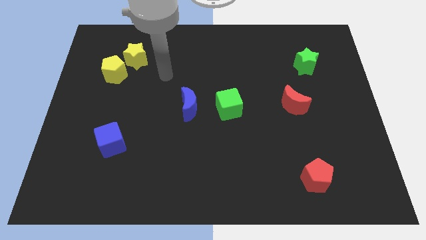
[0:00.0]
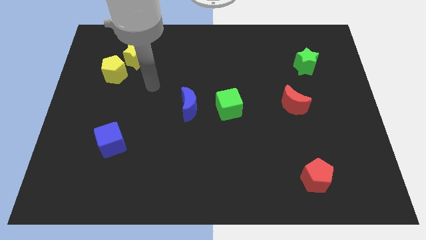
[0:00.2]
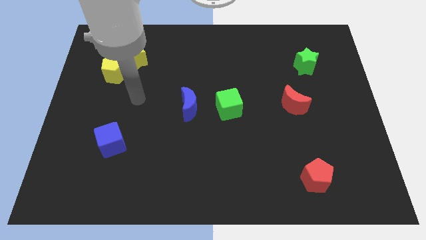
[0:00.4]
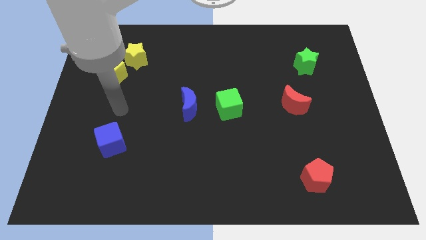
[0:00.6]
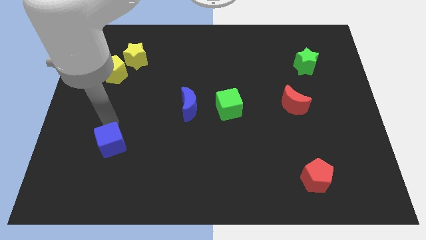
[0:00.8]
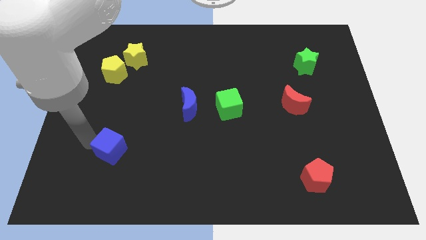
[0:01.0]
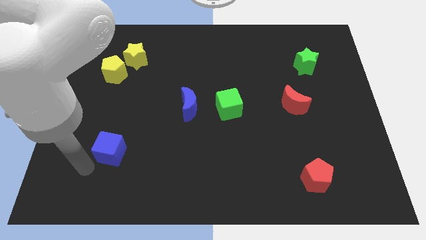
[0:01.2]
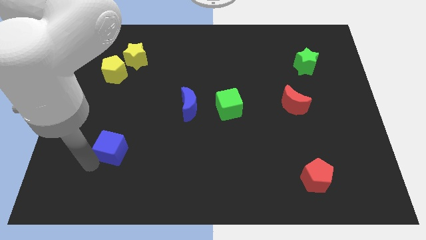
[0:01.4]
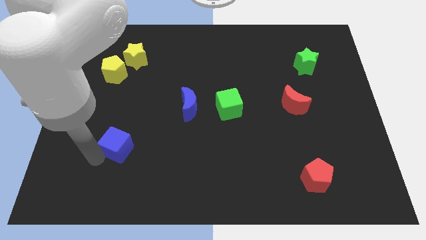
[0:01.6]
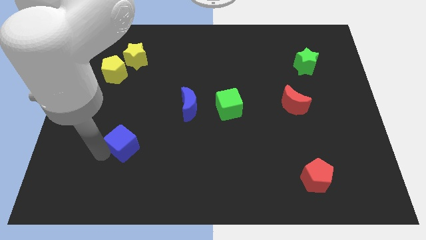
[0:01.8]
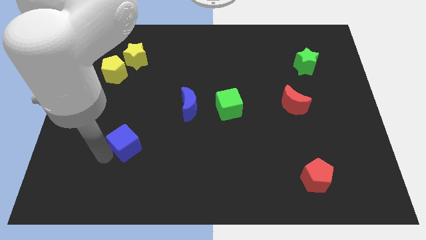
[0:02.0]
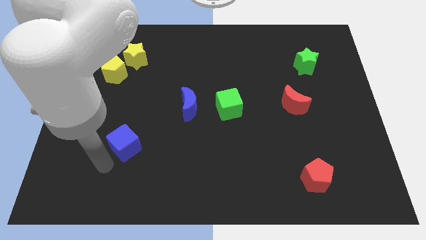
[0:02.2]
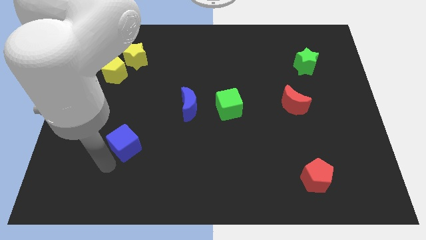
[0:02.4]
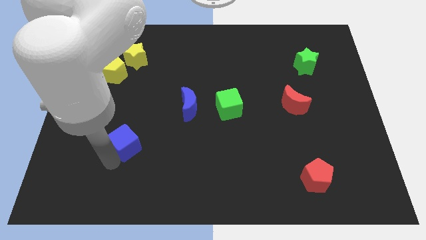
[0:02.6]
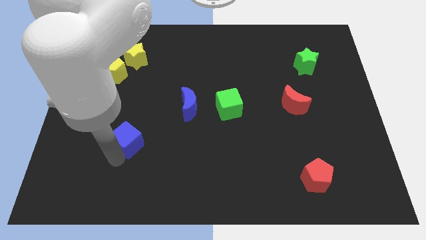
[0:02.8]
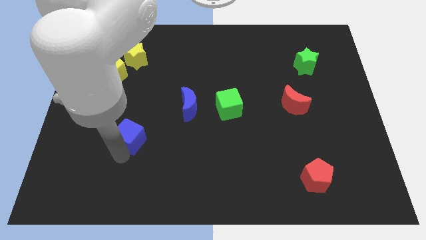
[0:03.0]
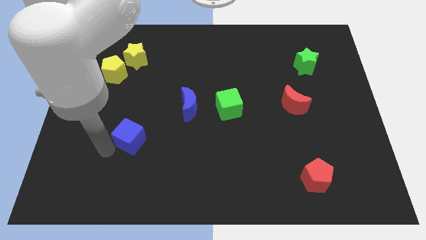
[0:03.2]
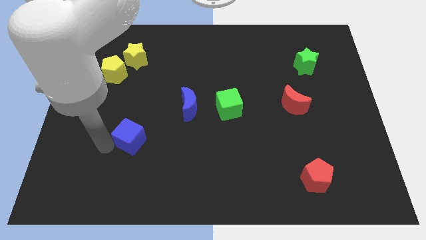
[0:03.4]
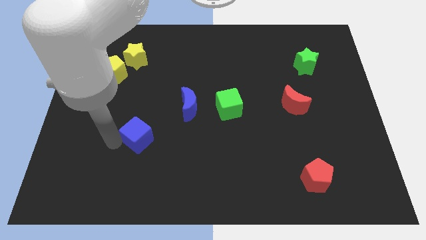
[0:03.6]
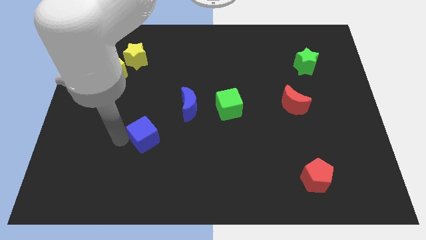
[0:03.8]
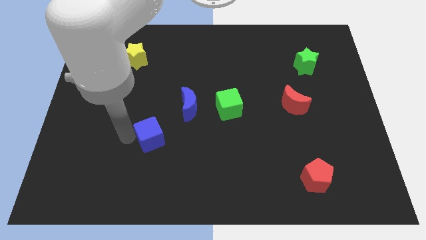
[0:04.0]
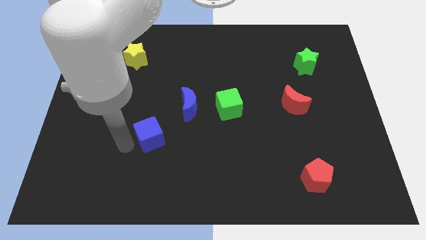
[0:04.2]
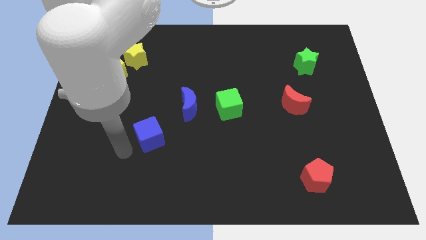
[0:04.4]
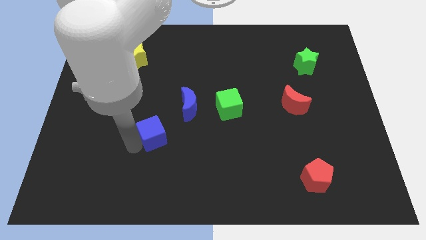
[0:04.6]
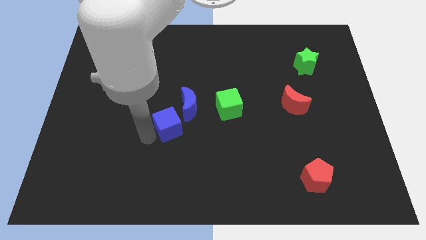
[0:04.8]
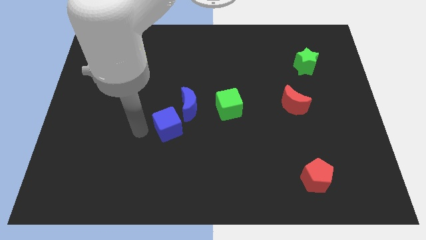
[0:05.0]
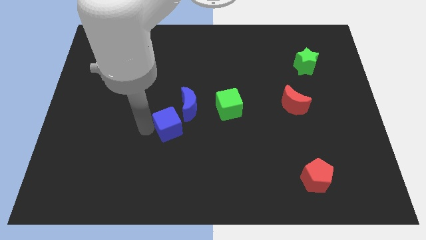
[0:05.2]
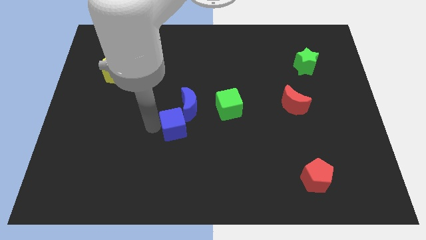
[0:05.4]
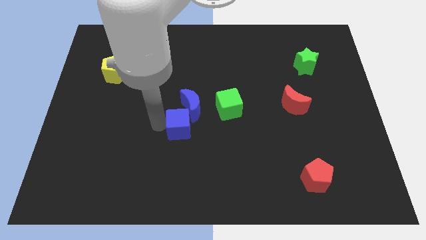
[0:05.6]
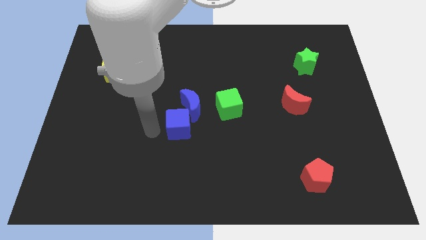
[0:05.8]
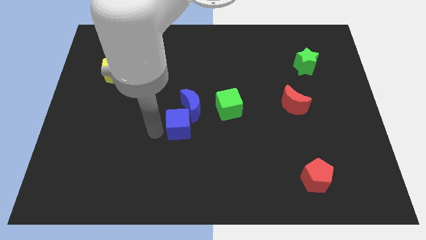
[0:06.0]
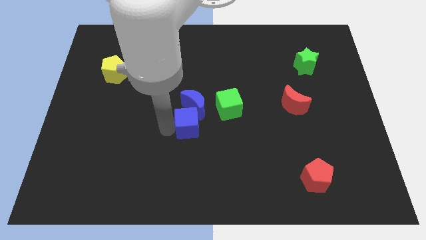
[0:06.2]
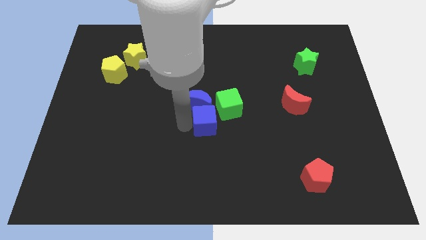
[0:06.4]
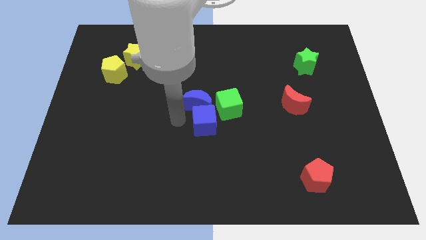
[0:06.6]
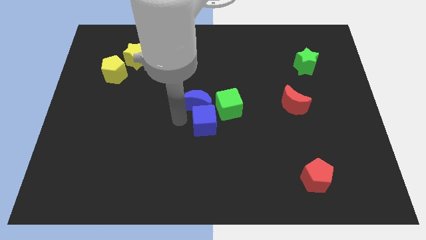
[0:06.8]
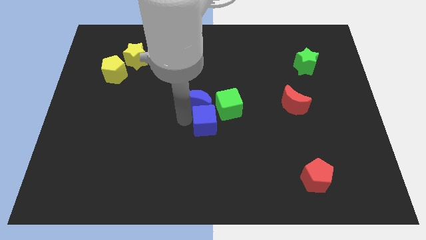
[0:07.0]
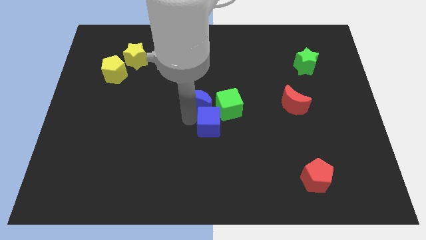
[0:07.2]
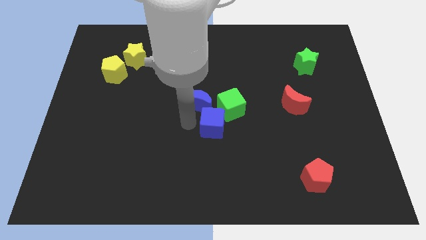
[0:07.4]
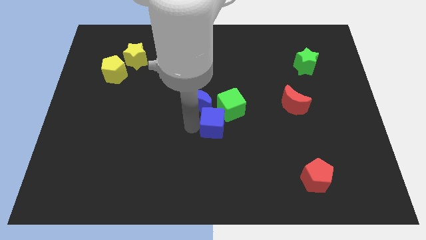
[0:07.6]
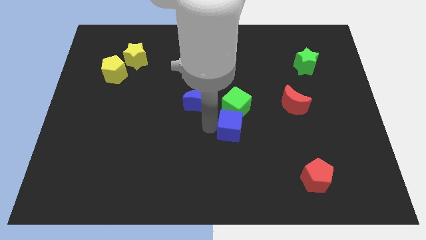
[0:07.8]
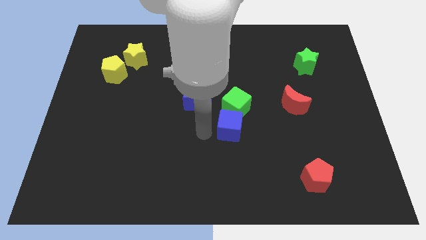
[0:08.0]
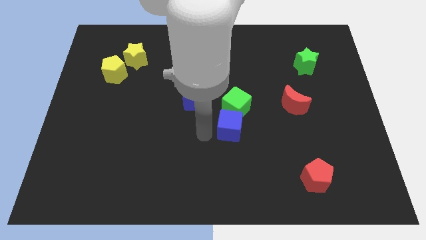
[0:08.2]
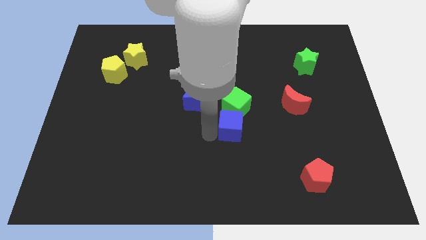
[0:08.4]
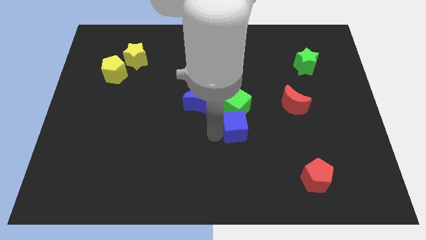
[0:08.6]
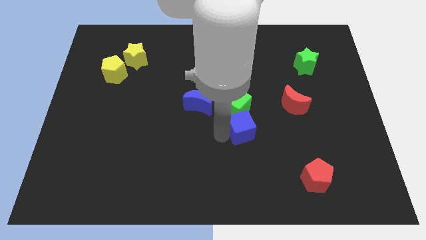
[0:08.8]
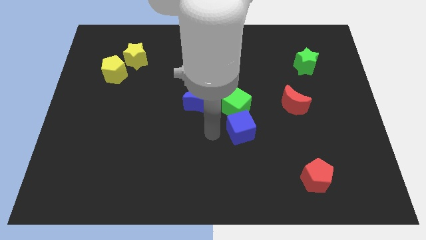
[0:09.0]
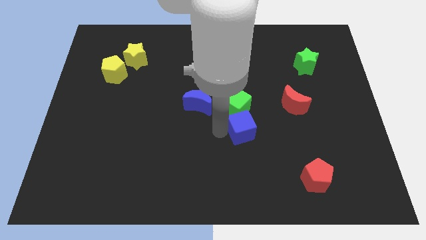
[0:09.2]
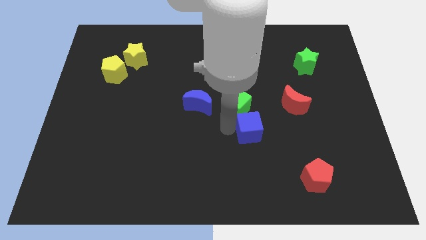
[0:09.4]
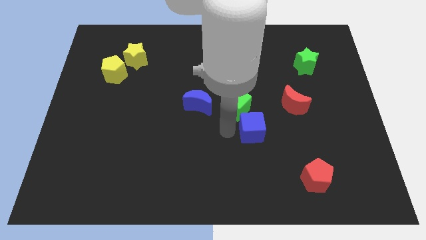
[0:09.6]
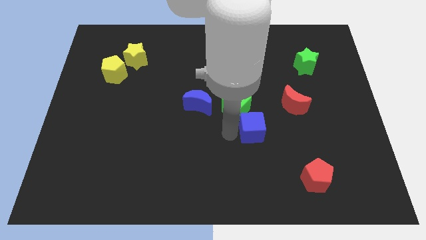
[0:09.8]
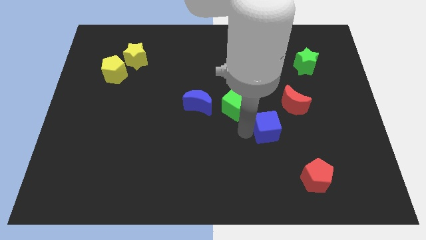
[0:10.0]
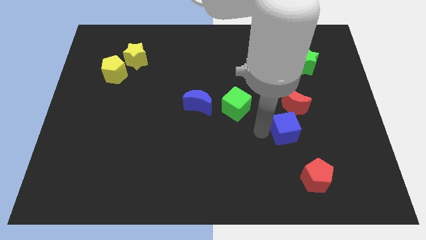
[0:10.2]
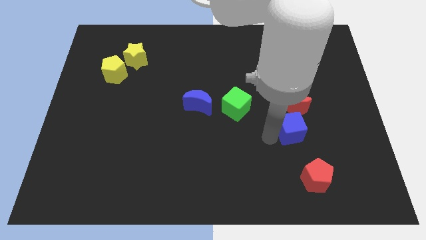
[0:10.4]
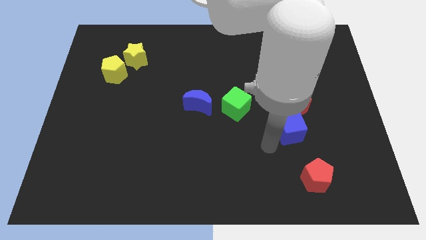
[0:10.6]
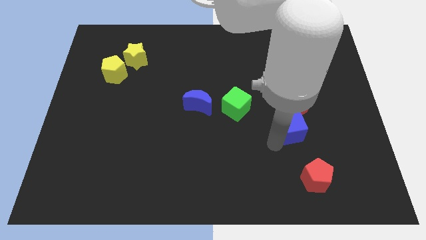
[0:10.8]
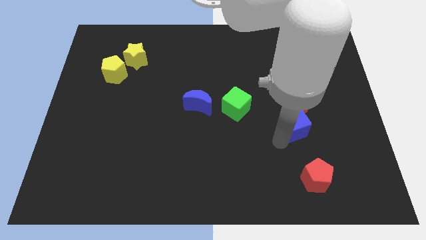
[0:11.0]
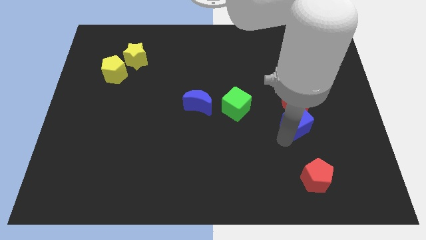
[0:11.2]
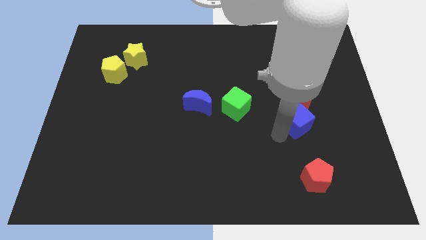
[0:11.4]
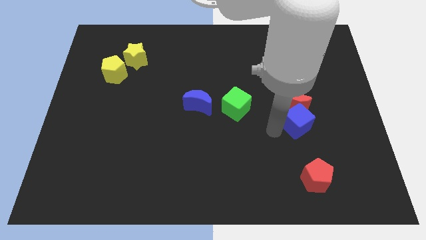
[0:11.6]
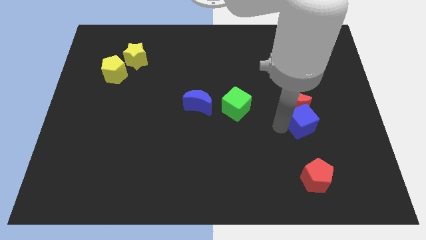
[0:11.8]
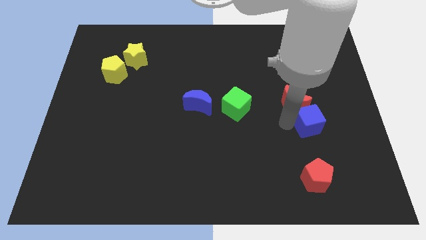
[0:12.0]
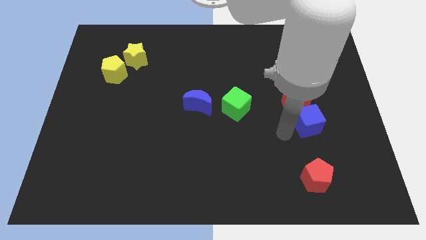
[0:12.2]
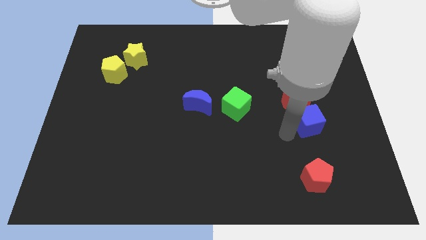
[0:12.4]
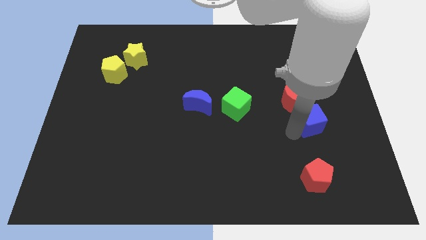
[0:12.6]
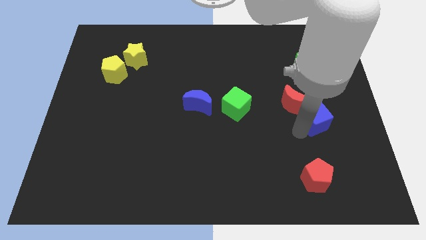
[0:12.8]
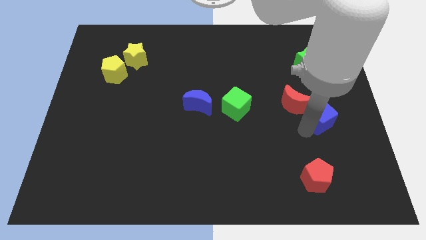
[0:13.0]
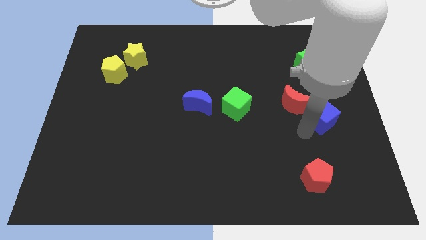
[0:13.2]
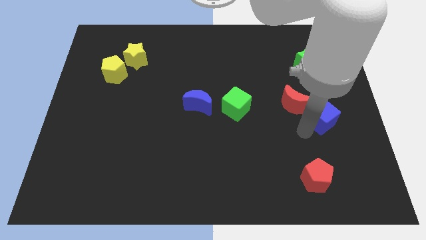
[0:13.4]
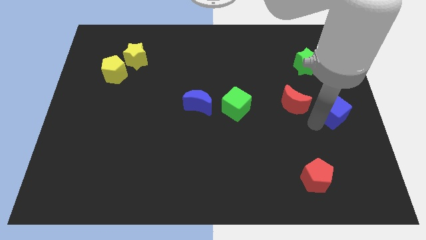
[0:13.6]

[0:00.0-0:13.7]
move the blue cube to the right side
